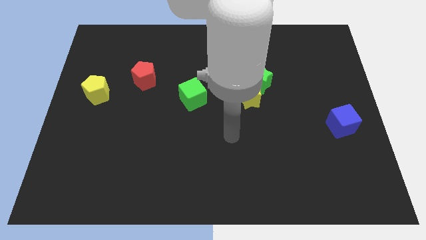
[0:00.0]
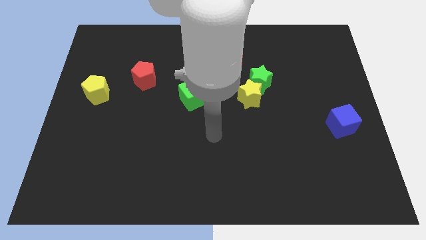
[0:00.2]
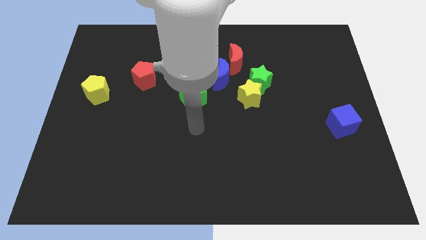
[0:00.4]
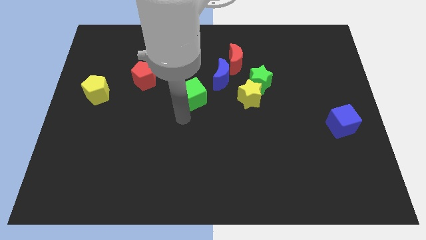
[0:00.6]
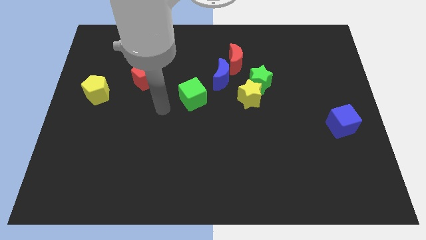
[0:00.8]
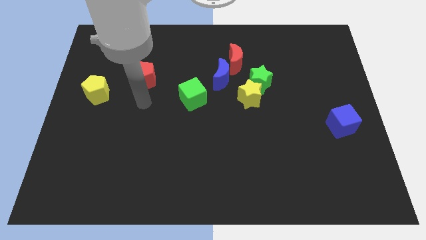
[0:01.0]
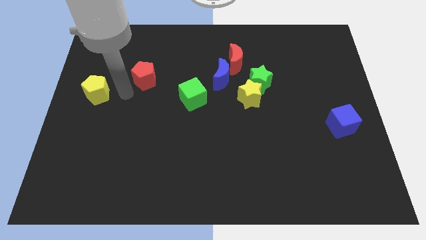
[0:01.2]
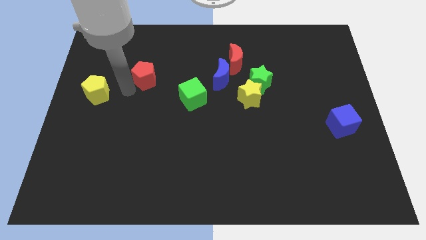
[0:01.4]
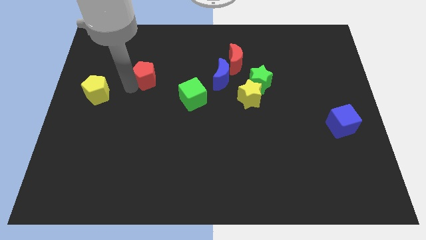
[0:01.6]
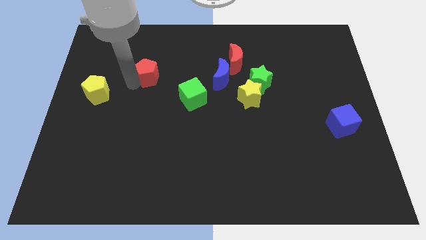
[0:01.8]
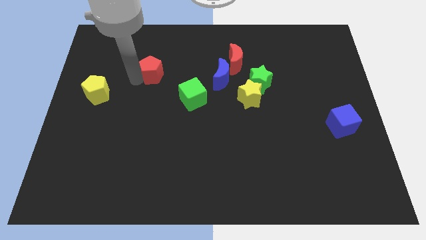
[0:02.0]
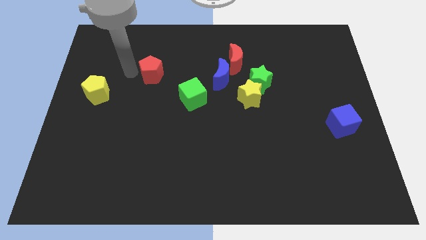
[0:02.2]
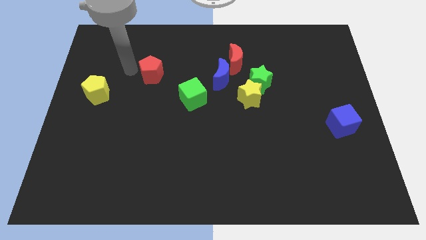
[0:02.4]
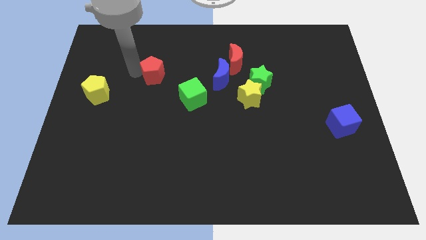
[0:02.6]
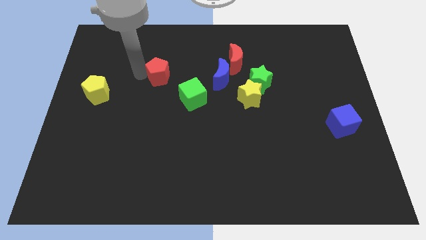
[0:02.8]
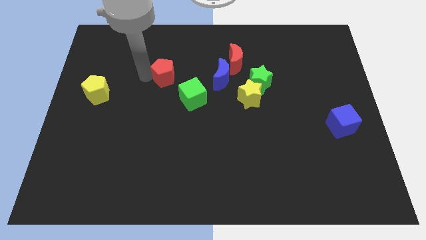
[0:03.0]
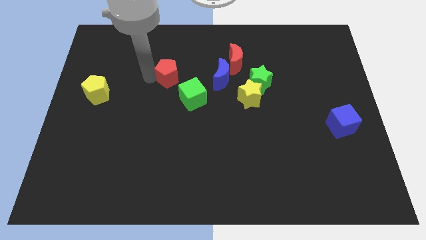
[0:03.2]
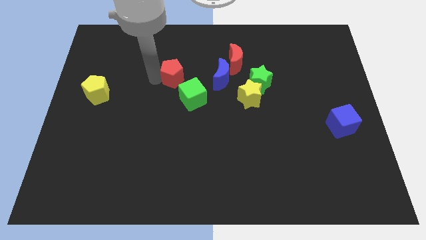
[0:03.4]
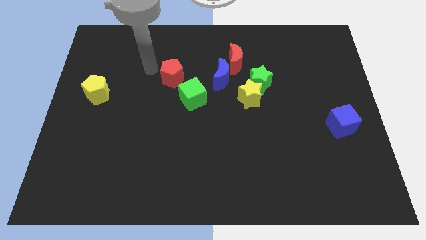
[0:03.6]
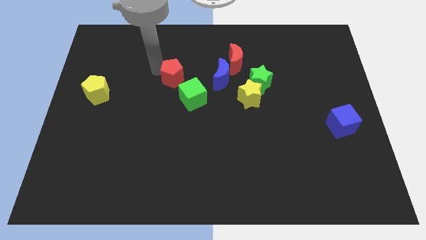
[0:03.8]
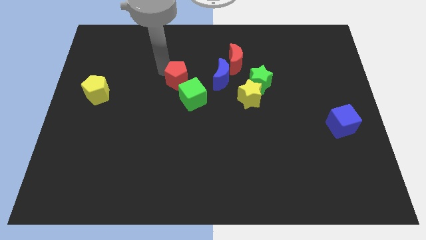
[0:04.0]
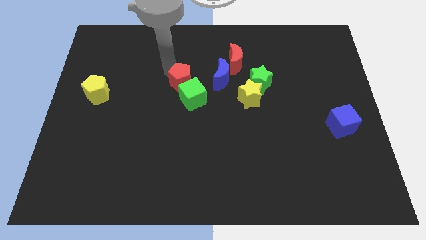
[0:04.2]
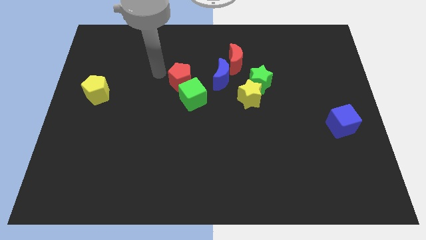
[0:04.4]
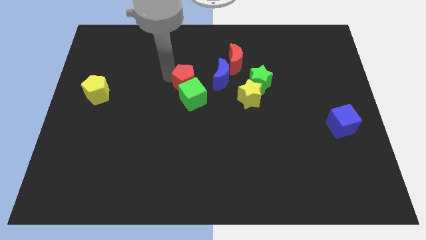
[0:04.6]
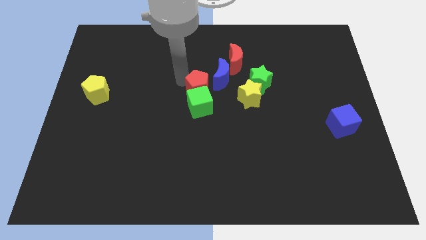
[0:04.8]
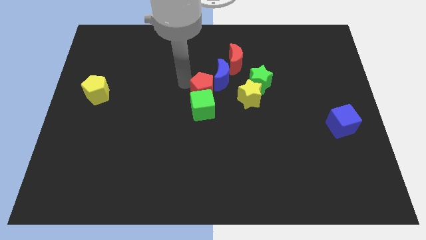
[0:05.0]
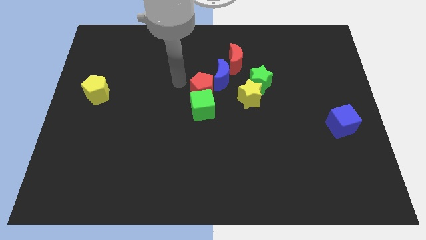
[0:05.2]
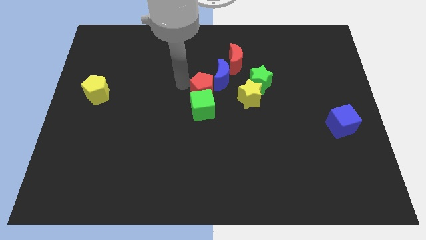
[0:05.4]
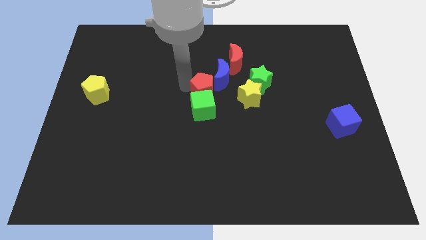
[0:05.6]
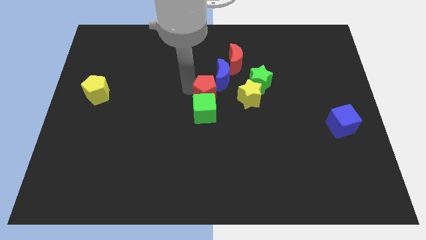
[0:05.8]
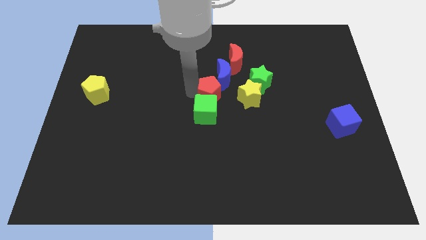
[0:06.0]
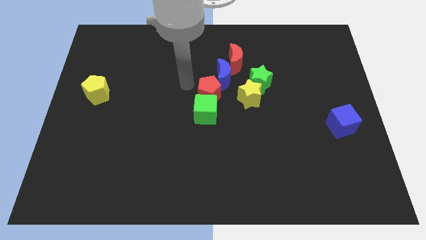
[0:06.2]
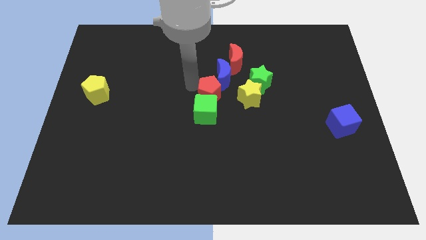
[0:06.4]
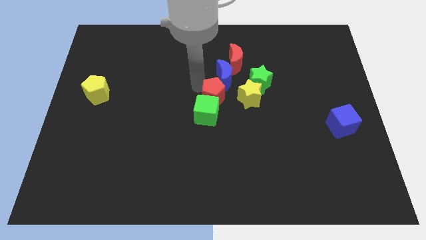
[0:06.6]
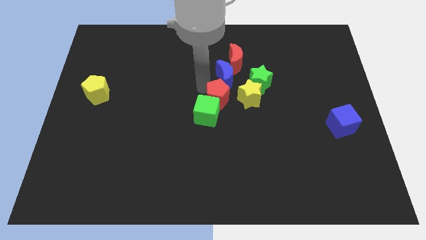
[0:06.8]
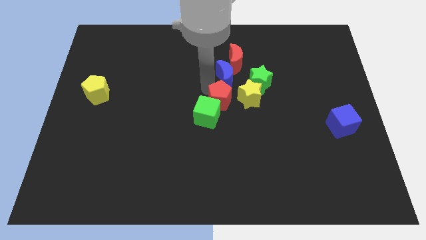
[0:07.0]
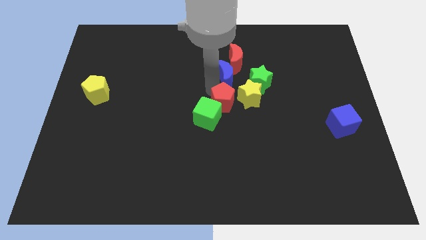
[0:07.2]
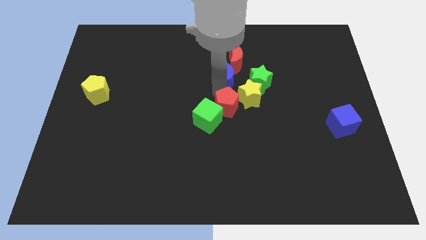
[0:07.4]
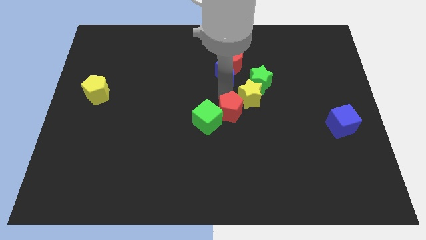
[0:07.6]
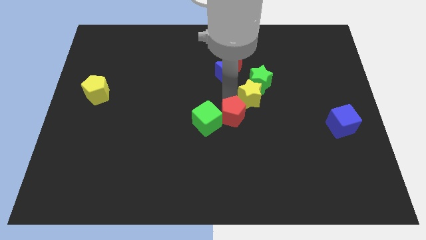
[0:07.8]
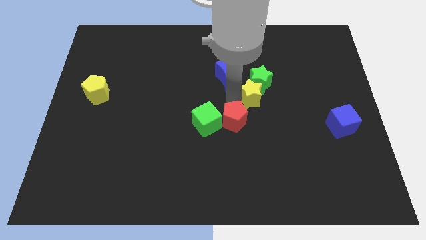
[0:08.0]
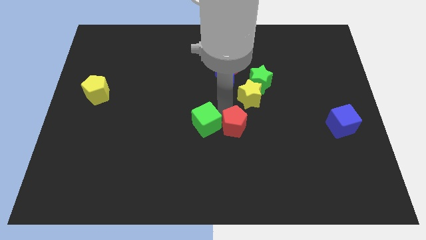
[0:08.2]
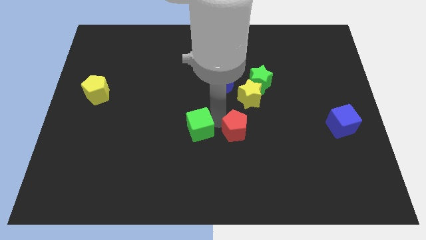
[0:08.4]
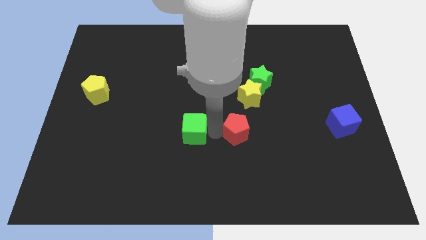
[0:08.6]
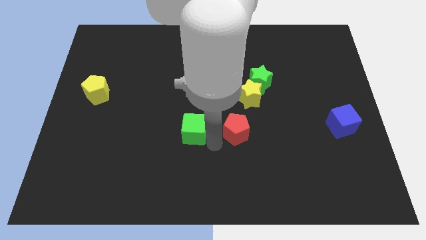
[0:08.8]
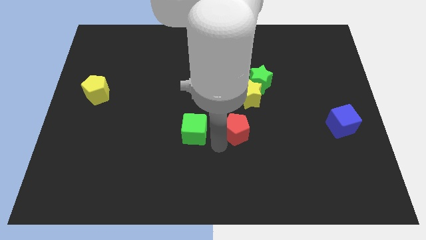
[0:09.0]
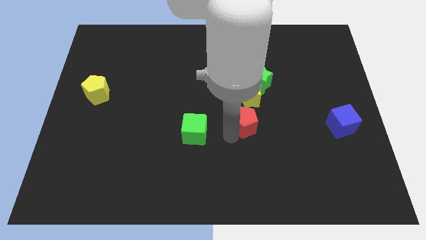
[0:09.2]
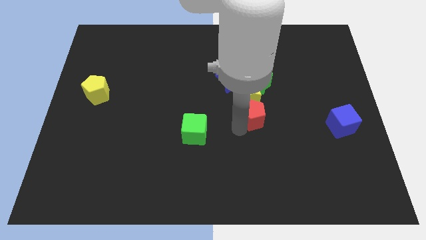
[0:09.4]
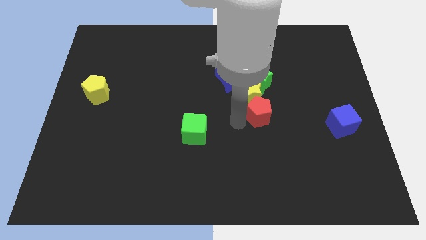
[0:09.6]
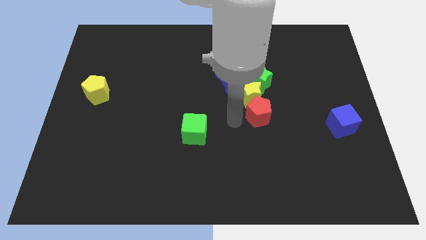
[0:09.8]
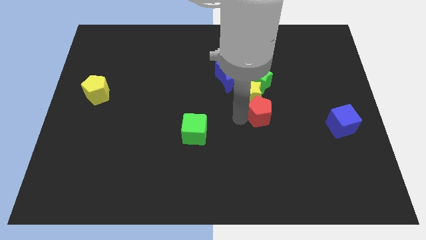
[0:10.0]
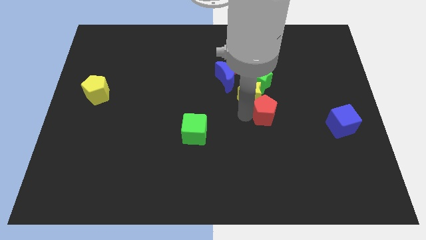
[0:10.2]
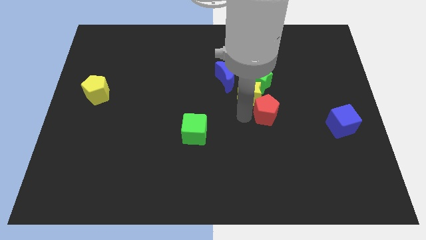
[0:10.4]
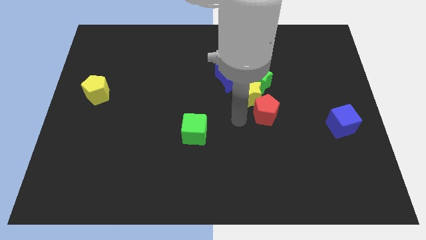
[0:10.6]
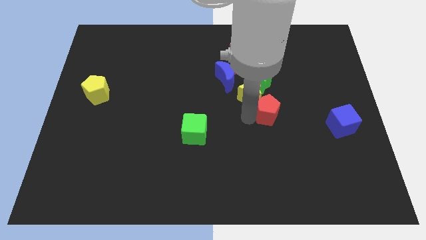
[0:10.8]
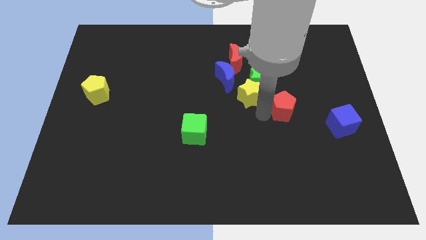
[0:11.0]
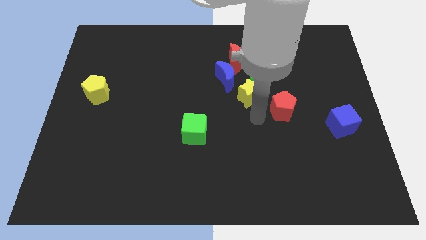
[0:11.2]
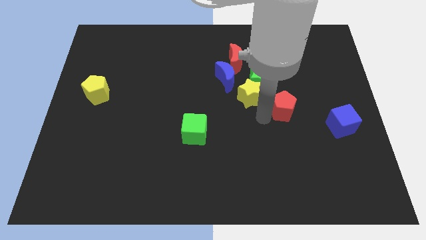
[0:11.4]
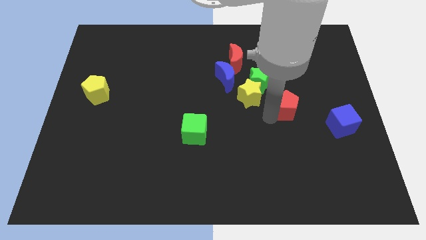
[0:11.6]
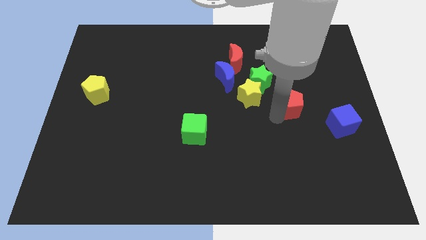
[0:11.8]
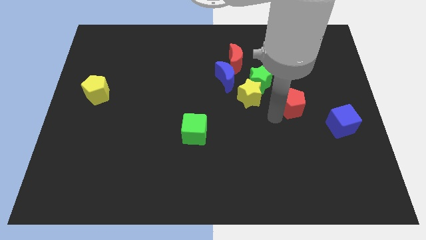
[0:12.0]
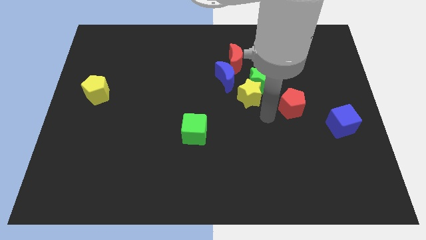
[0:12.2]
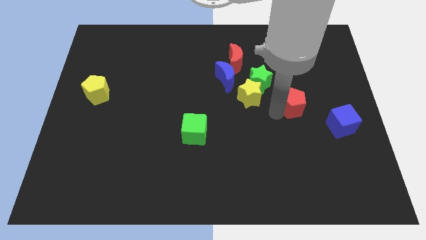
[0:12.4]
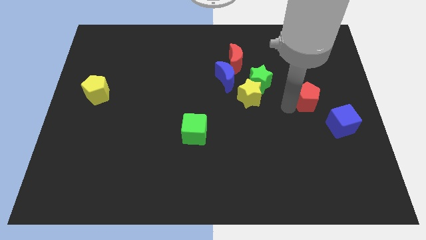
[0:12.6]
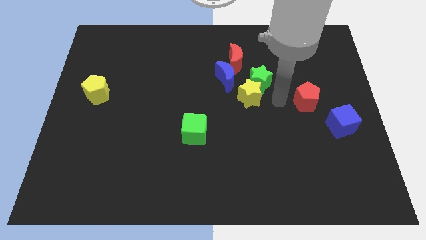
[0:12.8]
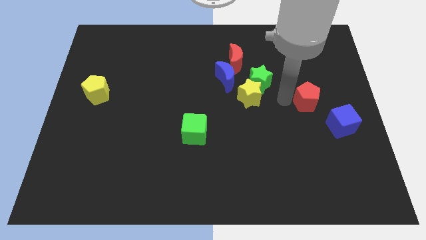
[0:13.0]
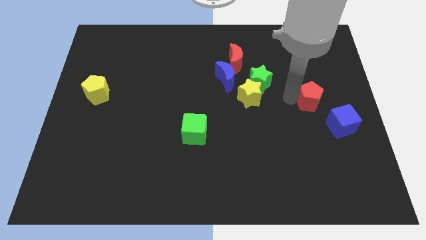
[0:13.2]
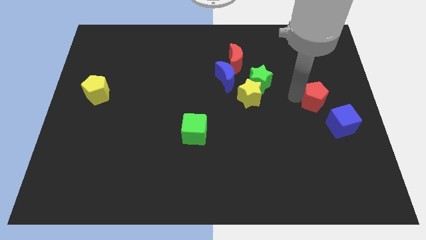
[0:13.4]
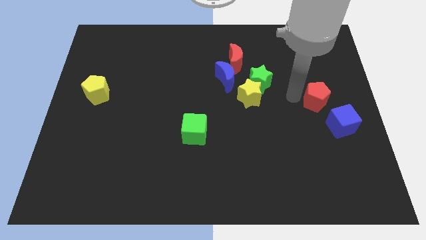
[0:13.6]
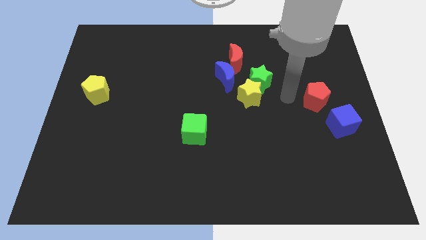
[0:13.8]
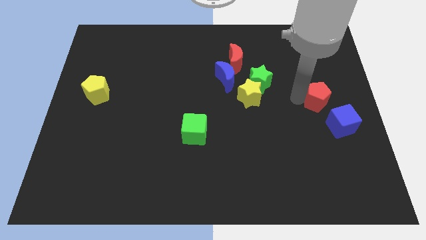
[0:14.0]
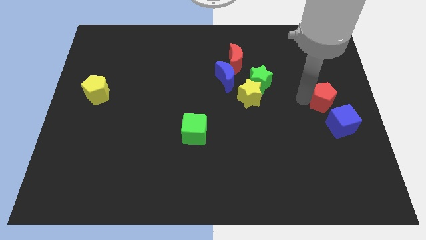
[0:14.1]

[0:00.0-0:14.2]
slide the red pentagon to the right side
